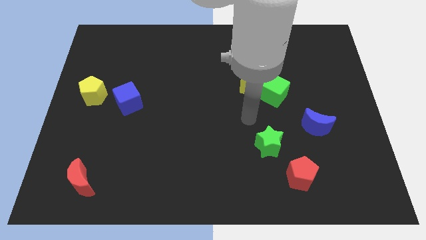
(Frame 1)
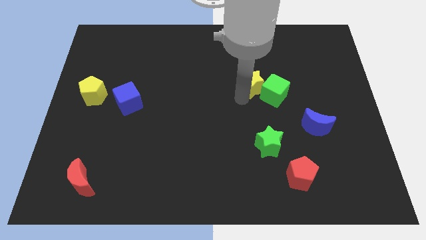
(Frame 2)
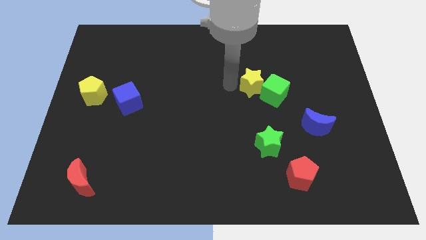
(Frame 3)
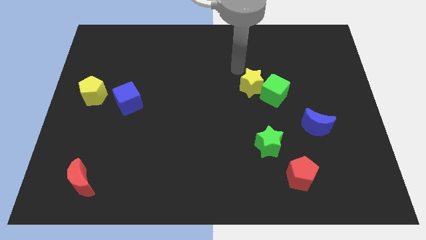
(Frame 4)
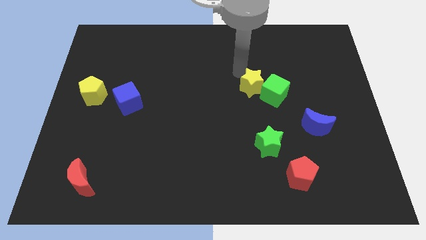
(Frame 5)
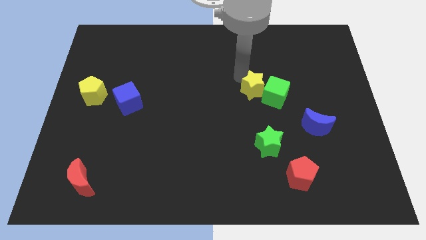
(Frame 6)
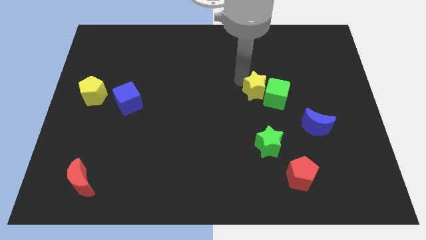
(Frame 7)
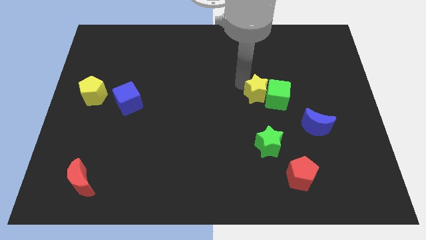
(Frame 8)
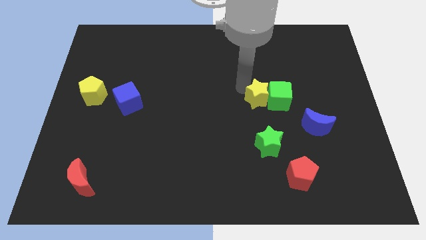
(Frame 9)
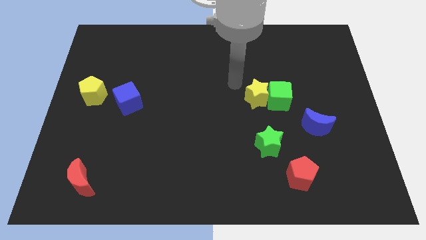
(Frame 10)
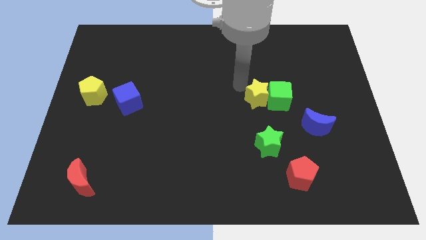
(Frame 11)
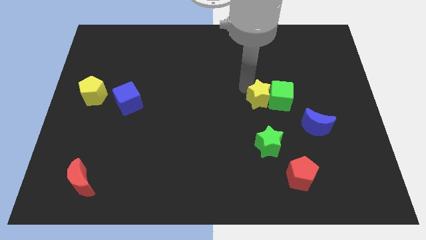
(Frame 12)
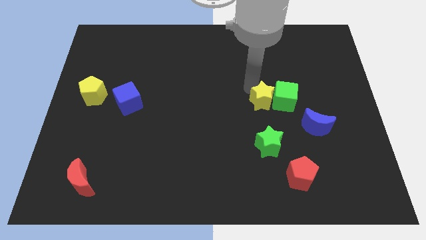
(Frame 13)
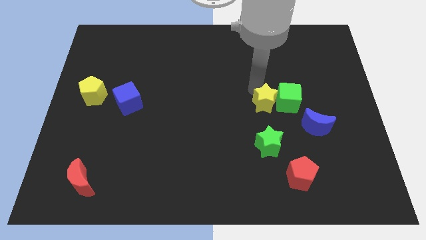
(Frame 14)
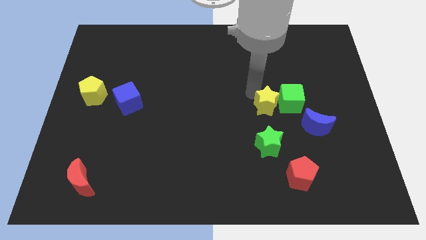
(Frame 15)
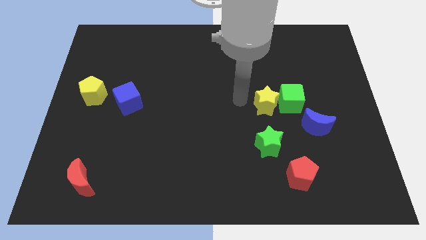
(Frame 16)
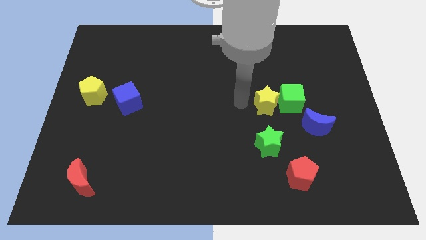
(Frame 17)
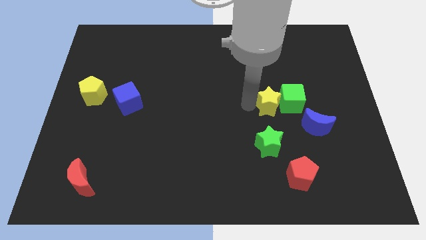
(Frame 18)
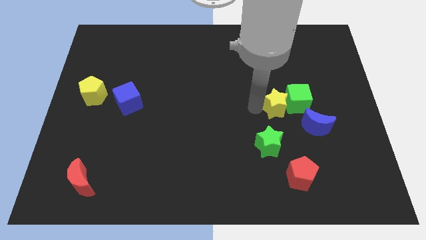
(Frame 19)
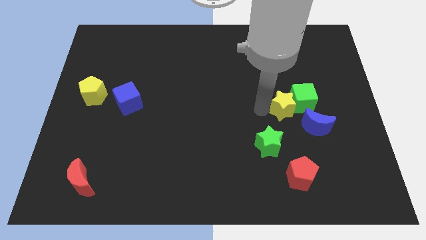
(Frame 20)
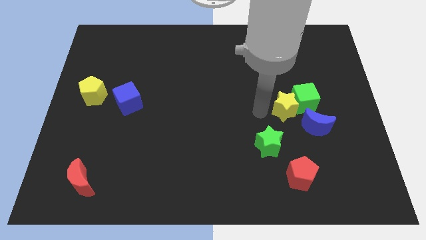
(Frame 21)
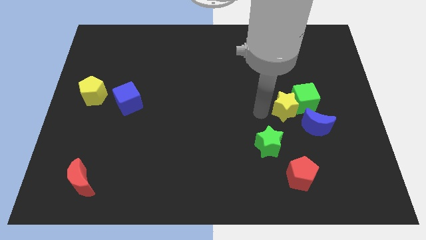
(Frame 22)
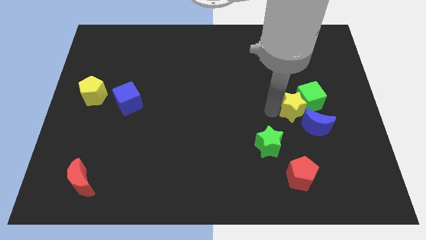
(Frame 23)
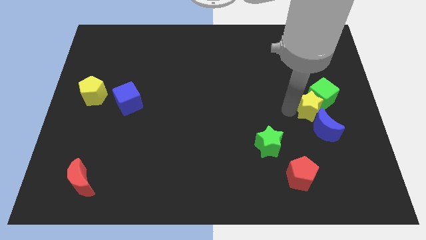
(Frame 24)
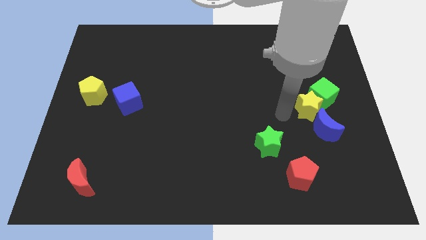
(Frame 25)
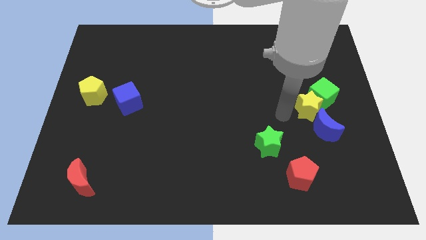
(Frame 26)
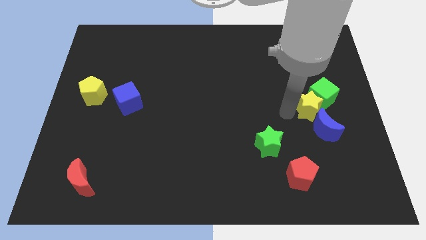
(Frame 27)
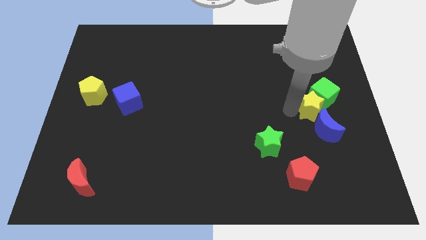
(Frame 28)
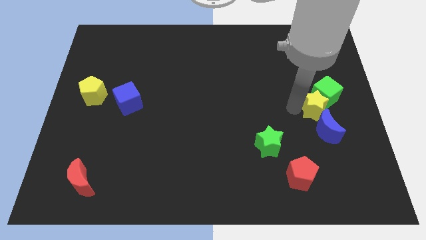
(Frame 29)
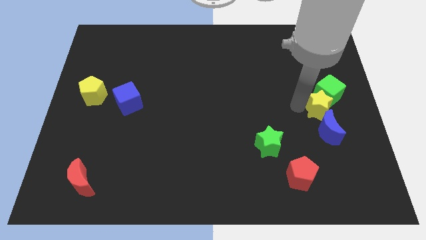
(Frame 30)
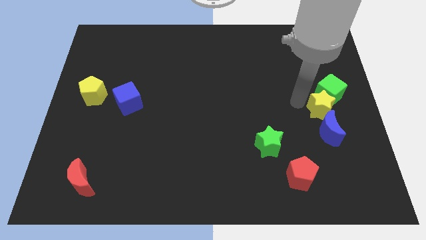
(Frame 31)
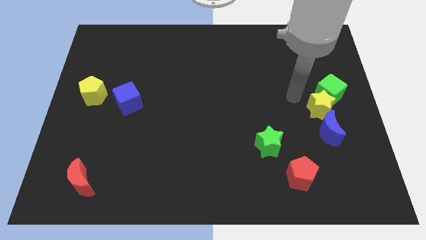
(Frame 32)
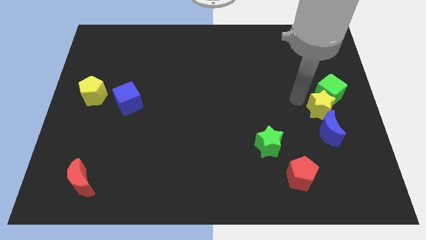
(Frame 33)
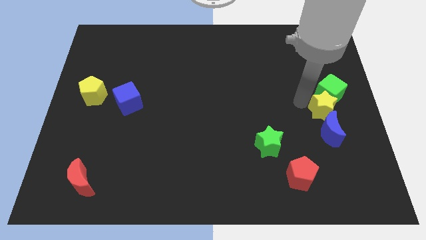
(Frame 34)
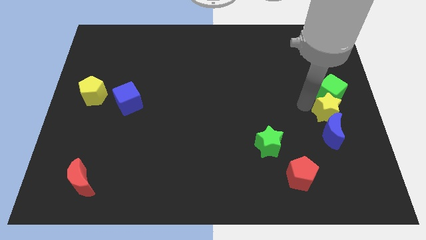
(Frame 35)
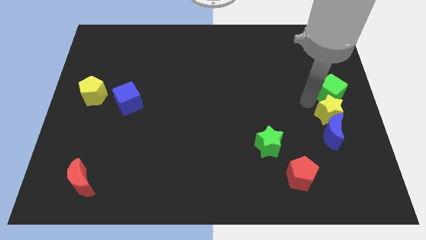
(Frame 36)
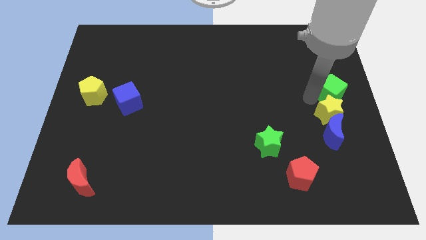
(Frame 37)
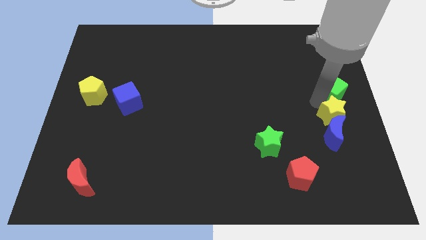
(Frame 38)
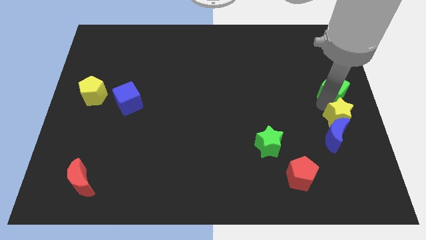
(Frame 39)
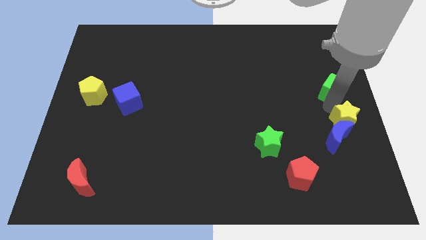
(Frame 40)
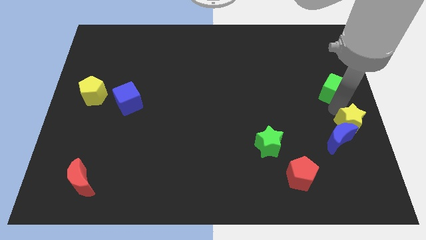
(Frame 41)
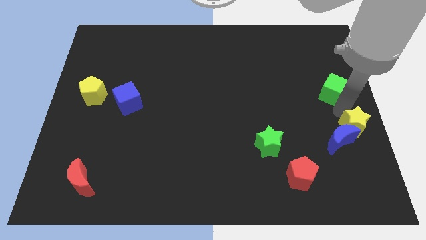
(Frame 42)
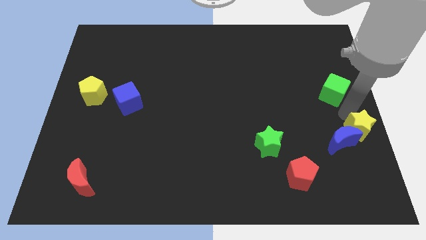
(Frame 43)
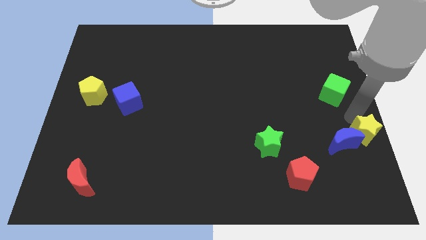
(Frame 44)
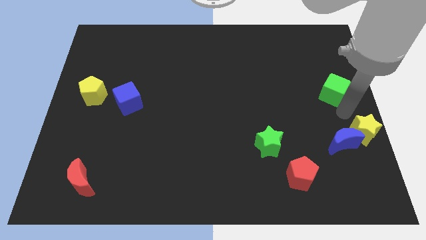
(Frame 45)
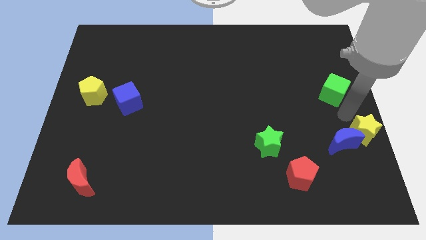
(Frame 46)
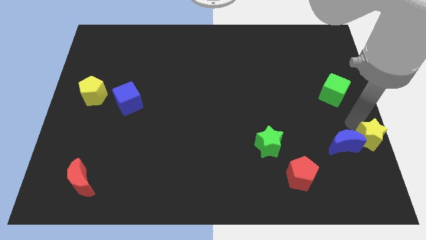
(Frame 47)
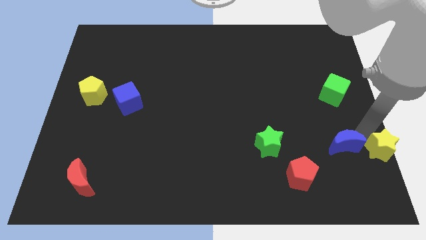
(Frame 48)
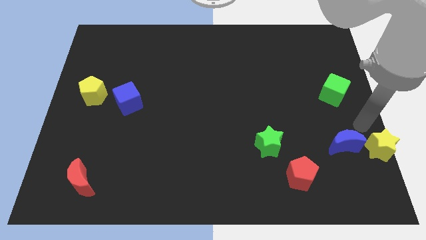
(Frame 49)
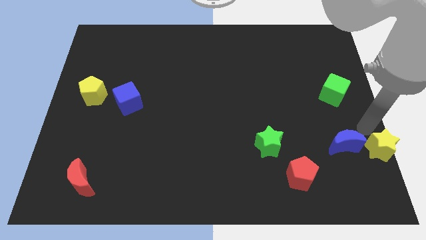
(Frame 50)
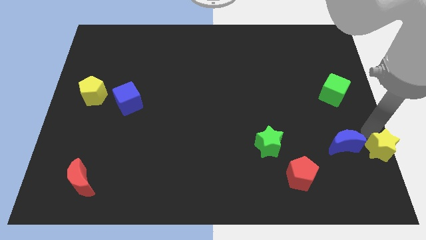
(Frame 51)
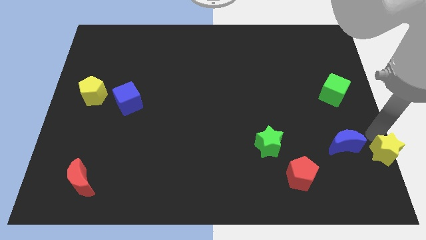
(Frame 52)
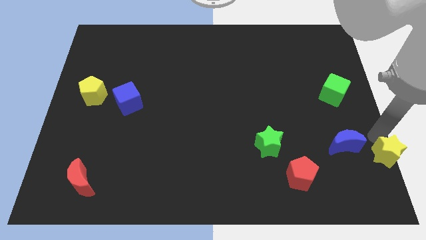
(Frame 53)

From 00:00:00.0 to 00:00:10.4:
move the yellow star to the bottom right of the board

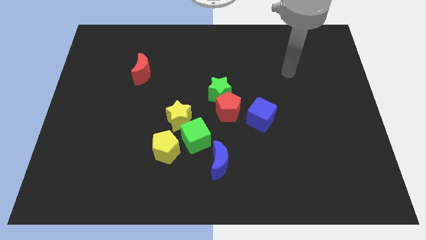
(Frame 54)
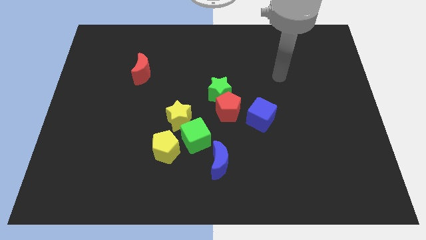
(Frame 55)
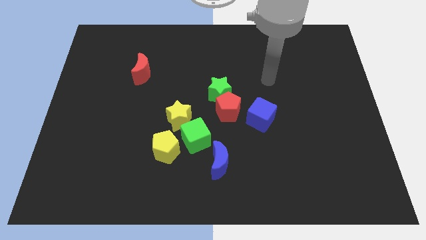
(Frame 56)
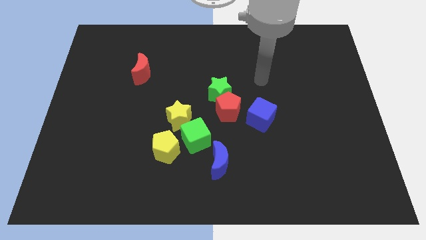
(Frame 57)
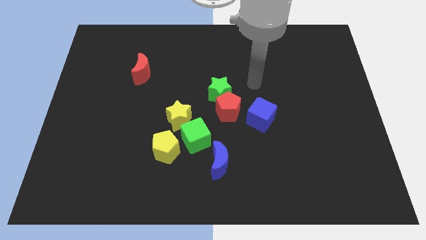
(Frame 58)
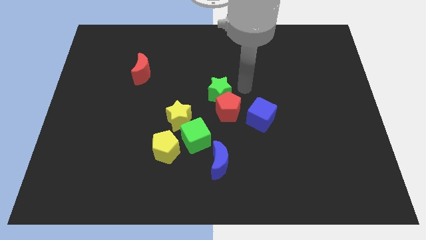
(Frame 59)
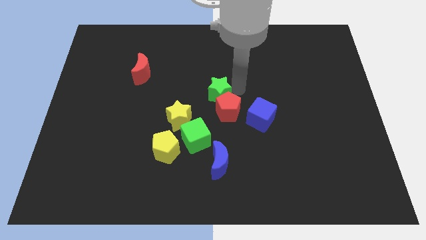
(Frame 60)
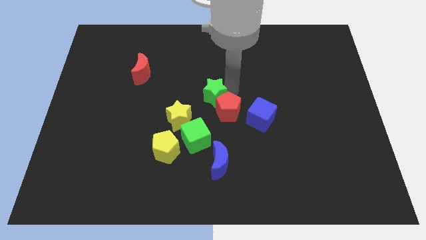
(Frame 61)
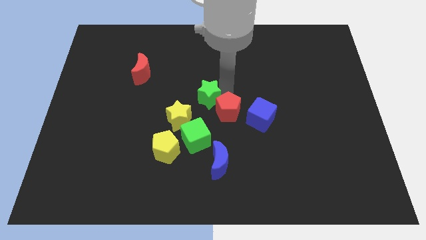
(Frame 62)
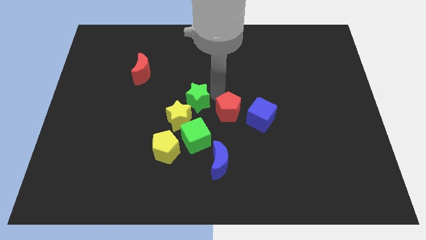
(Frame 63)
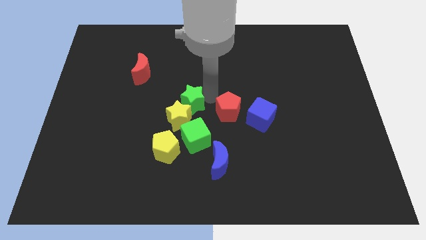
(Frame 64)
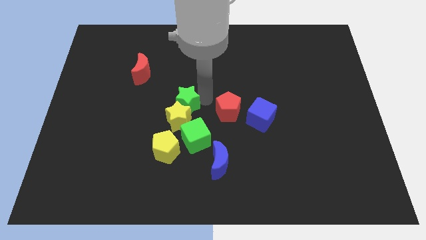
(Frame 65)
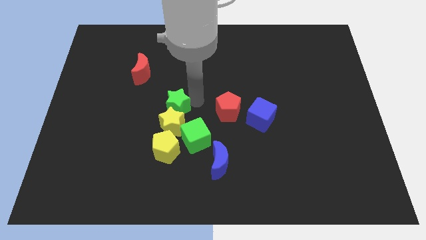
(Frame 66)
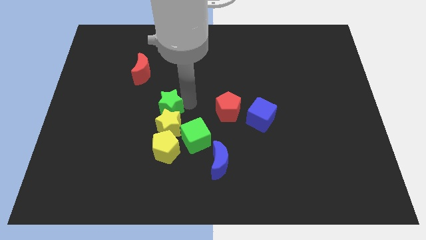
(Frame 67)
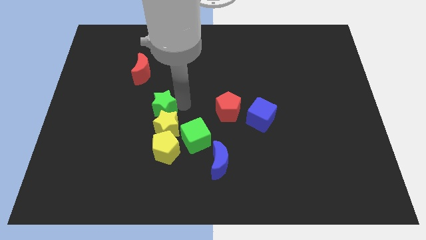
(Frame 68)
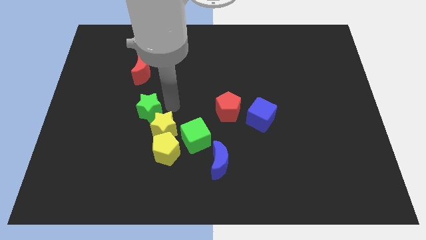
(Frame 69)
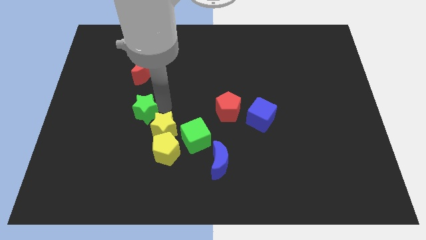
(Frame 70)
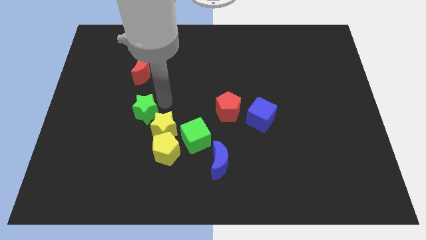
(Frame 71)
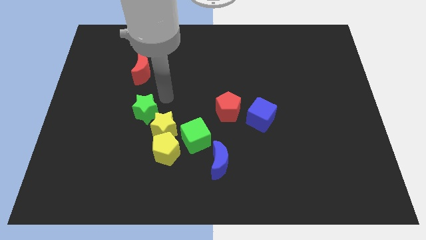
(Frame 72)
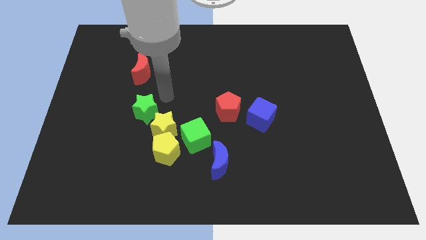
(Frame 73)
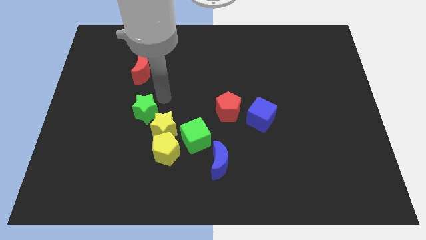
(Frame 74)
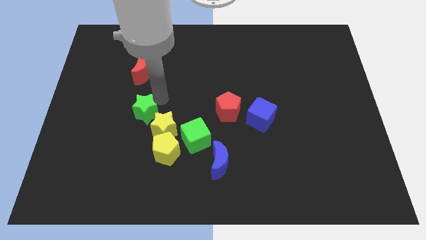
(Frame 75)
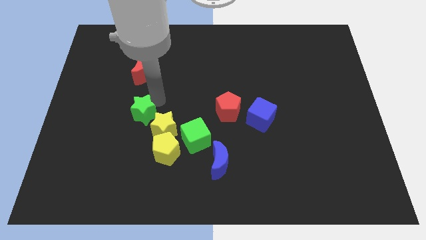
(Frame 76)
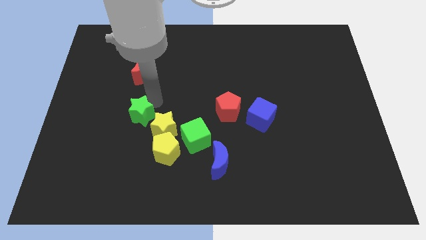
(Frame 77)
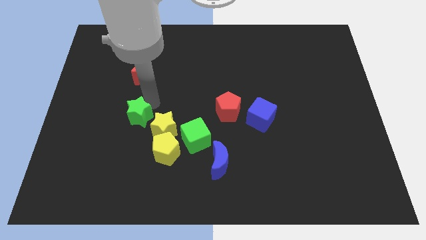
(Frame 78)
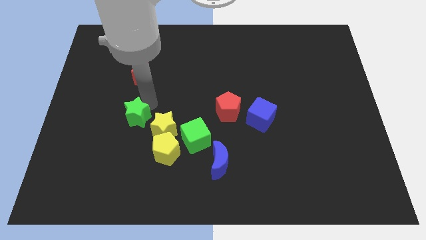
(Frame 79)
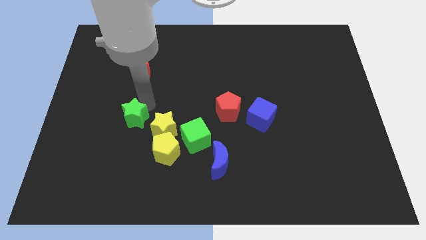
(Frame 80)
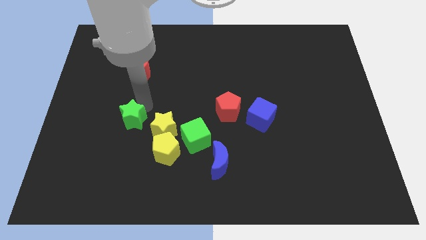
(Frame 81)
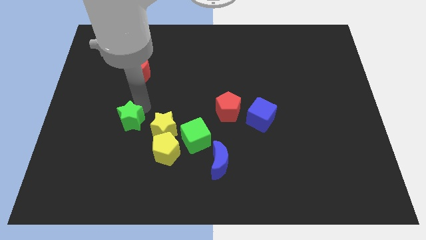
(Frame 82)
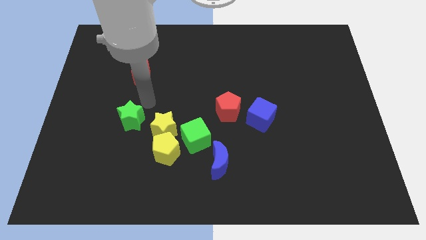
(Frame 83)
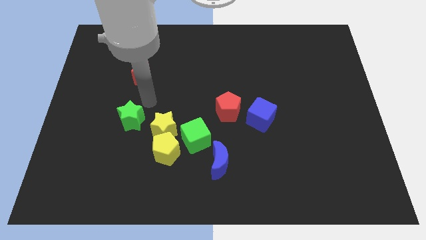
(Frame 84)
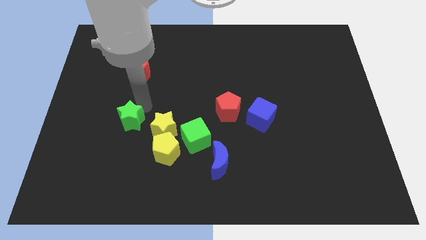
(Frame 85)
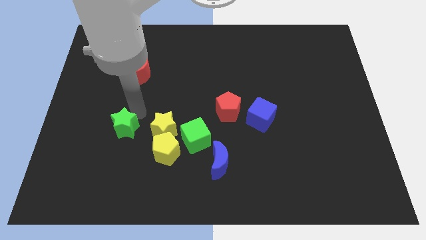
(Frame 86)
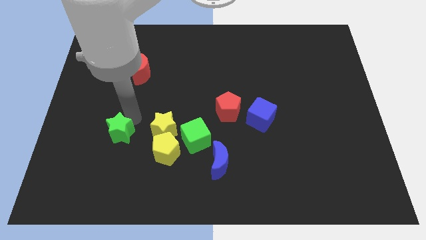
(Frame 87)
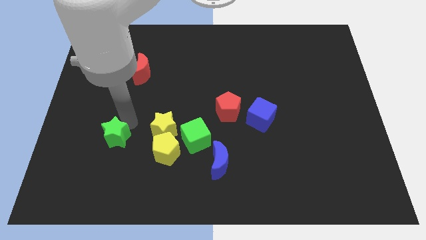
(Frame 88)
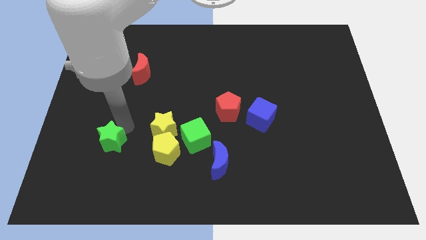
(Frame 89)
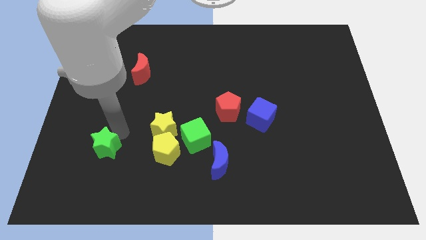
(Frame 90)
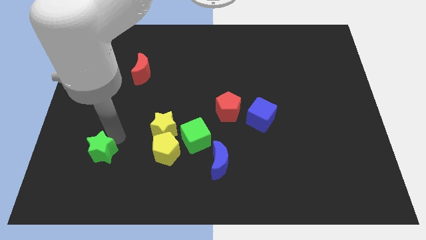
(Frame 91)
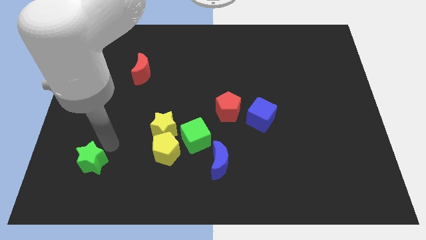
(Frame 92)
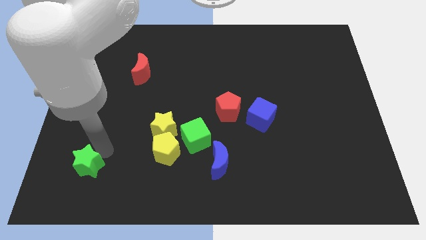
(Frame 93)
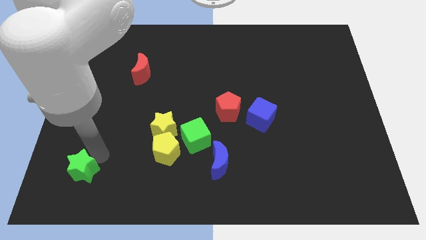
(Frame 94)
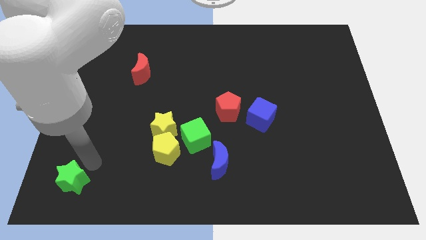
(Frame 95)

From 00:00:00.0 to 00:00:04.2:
put the green star to the bottom left corner
